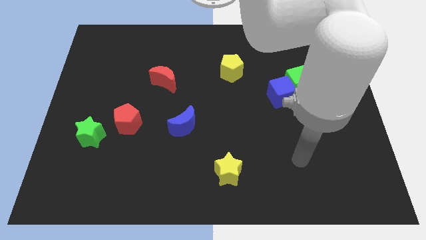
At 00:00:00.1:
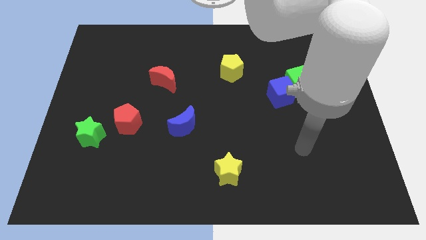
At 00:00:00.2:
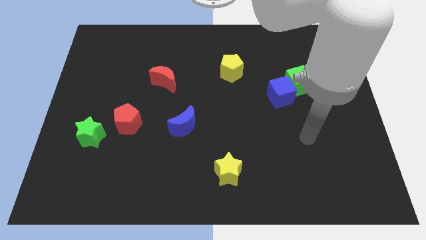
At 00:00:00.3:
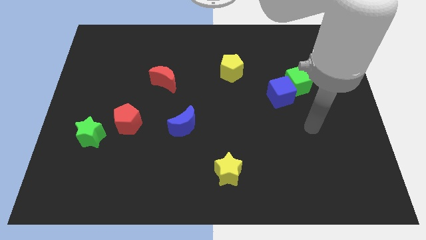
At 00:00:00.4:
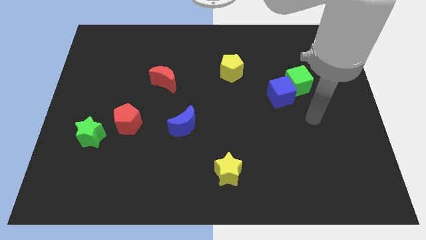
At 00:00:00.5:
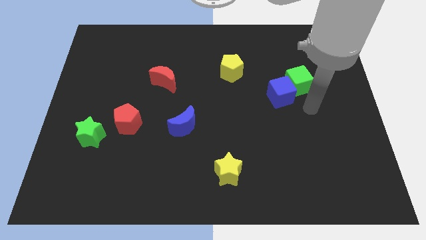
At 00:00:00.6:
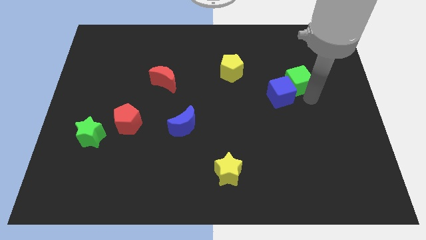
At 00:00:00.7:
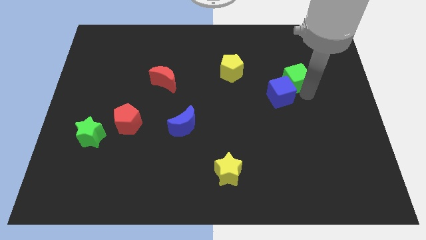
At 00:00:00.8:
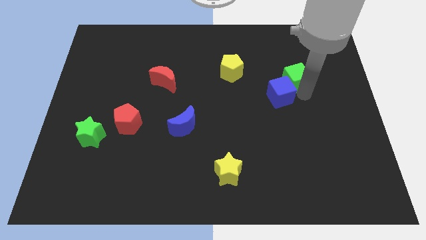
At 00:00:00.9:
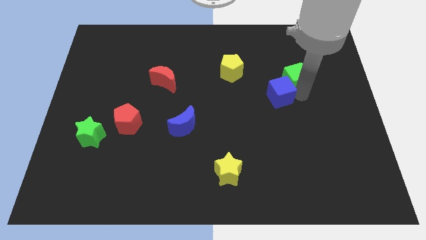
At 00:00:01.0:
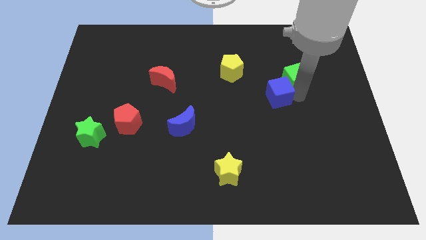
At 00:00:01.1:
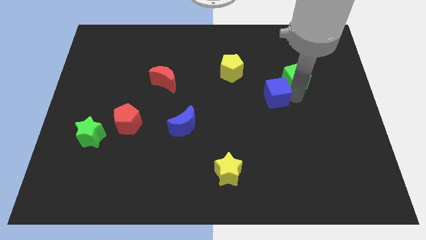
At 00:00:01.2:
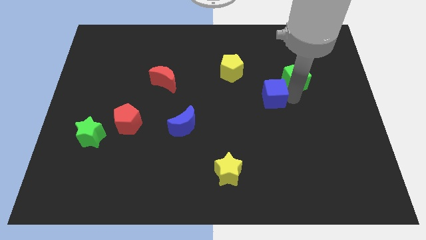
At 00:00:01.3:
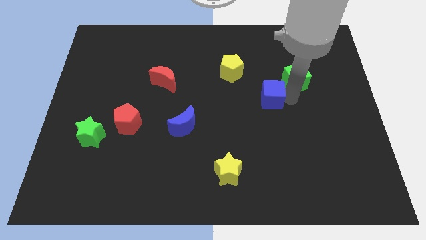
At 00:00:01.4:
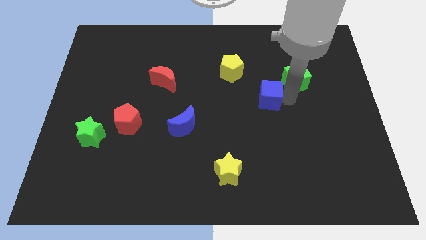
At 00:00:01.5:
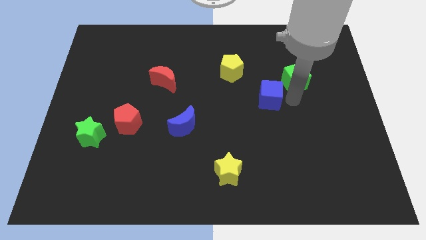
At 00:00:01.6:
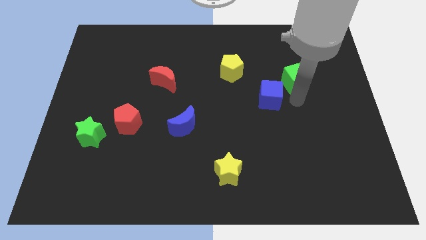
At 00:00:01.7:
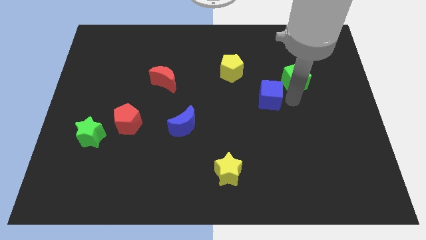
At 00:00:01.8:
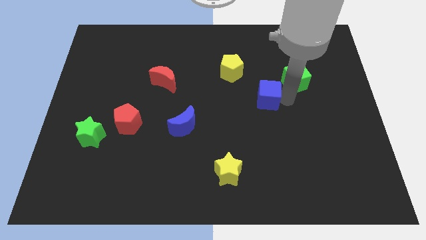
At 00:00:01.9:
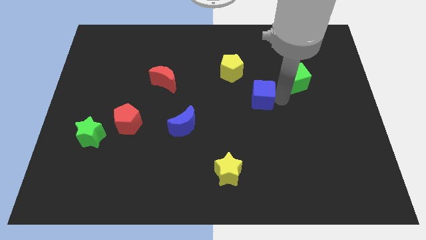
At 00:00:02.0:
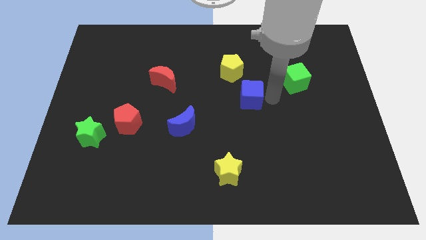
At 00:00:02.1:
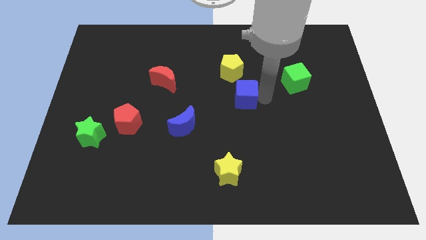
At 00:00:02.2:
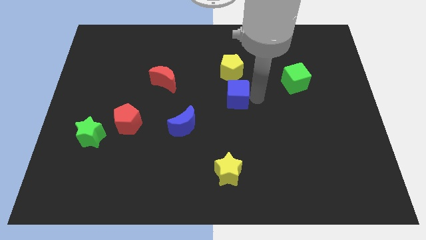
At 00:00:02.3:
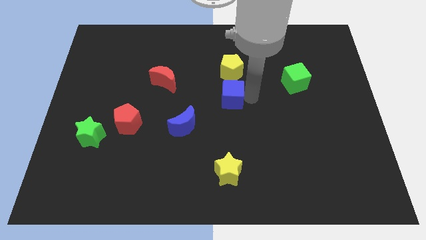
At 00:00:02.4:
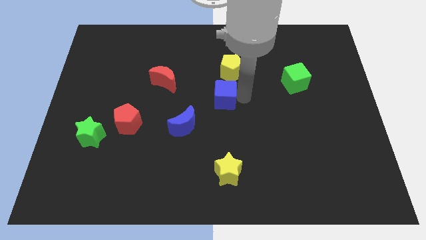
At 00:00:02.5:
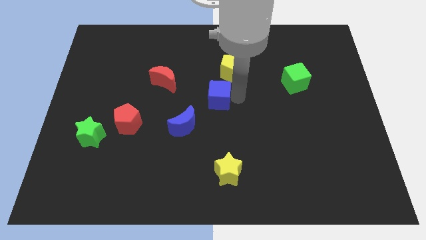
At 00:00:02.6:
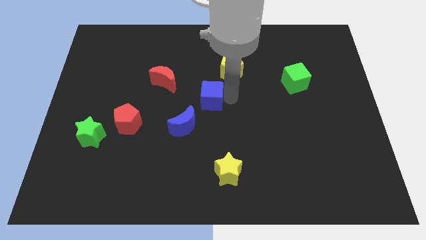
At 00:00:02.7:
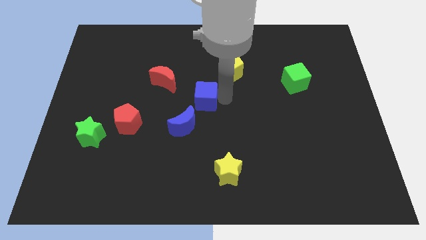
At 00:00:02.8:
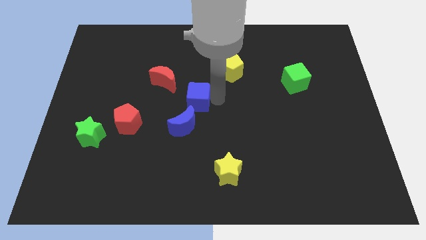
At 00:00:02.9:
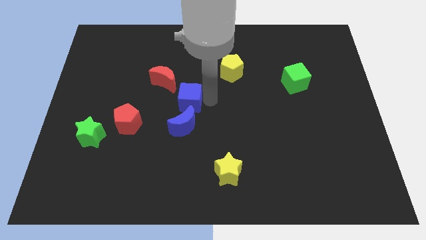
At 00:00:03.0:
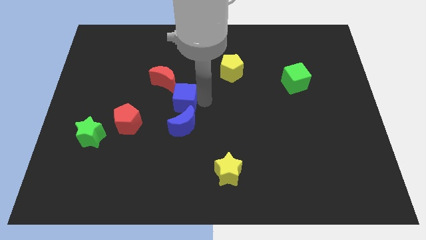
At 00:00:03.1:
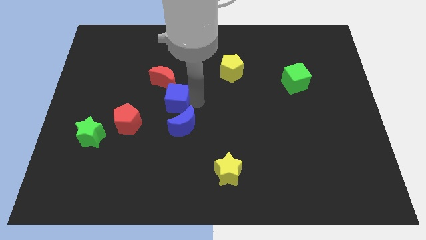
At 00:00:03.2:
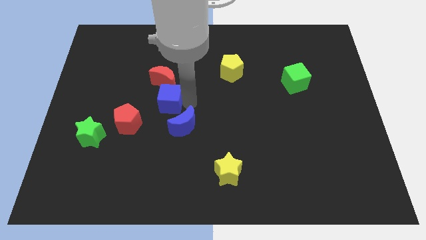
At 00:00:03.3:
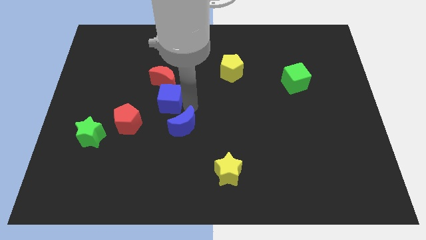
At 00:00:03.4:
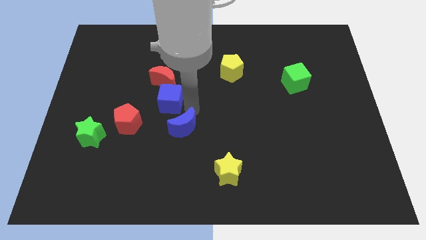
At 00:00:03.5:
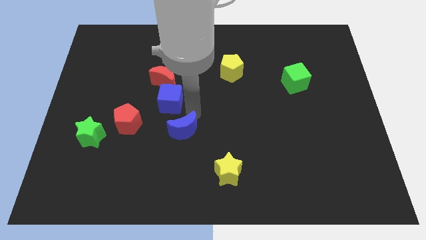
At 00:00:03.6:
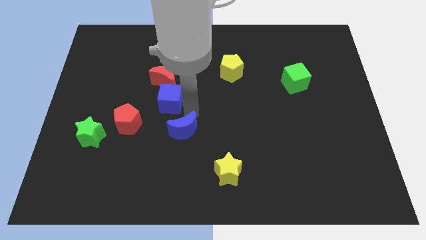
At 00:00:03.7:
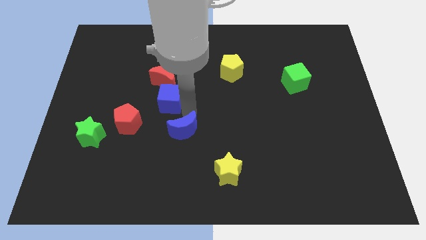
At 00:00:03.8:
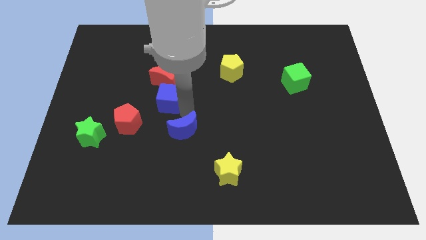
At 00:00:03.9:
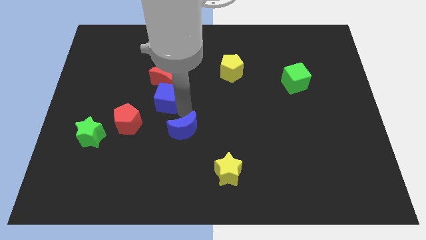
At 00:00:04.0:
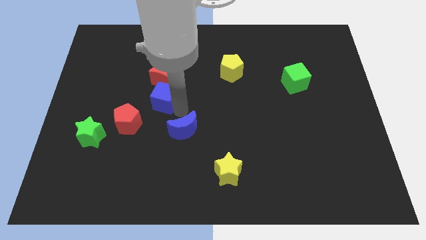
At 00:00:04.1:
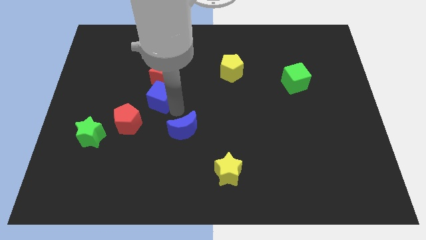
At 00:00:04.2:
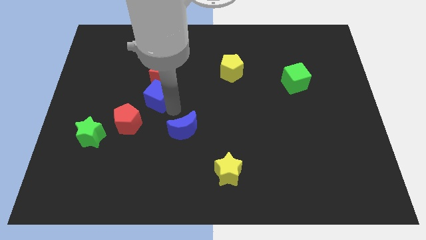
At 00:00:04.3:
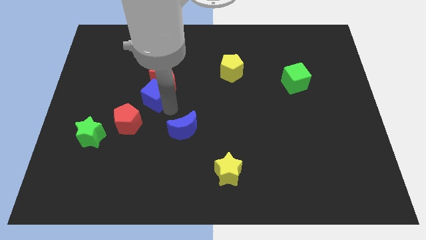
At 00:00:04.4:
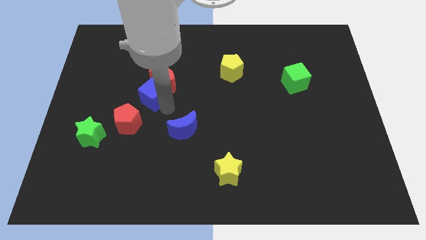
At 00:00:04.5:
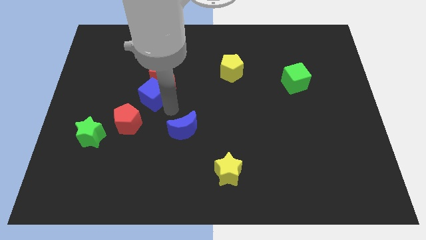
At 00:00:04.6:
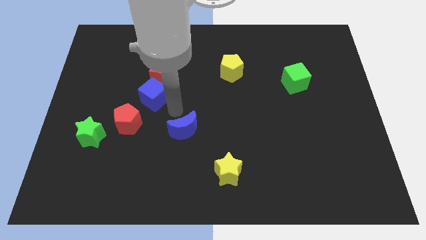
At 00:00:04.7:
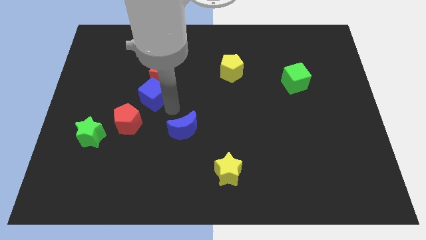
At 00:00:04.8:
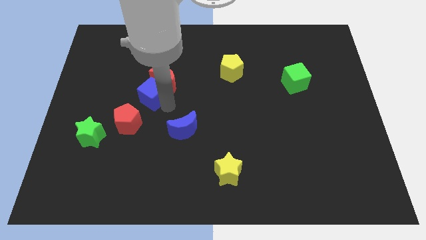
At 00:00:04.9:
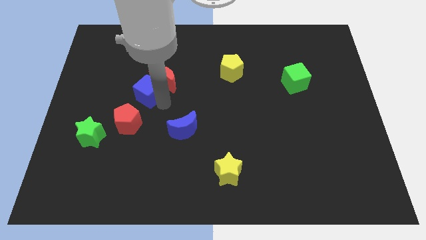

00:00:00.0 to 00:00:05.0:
move the blue cube just left of the red moon

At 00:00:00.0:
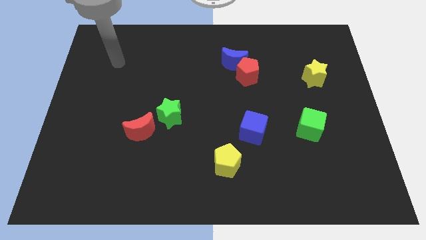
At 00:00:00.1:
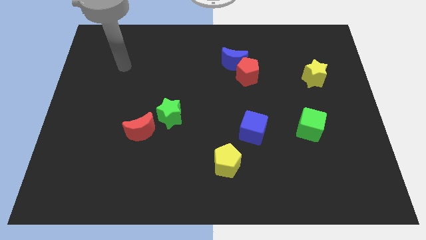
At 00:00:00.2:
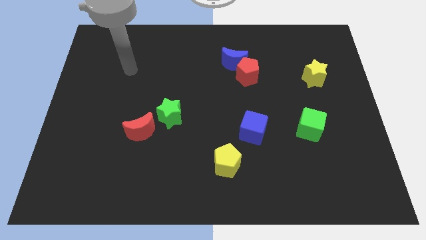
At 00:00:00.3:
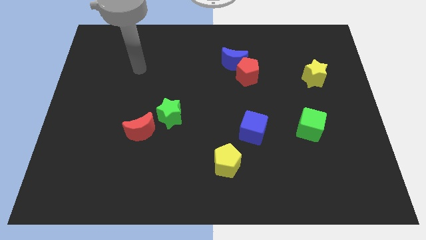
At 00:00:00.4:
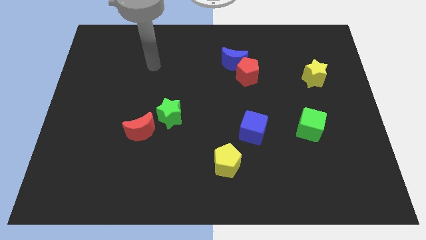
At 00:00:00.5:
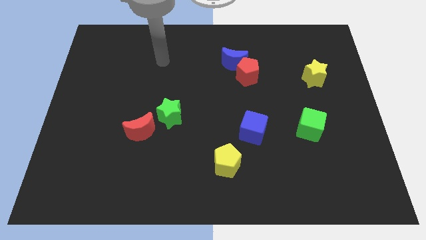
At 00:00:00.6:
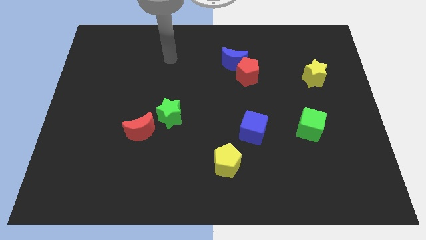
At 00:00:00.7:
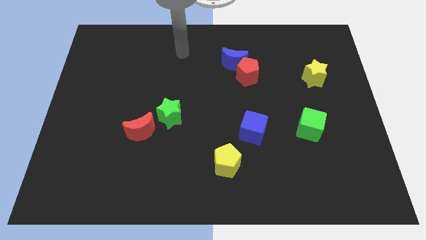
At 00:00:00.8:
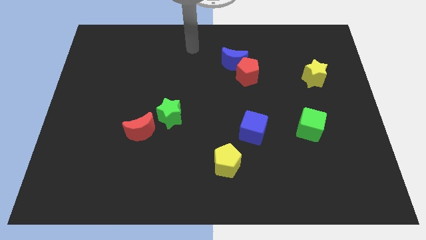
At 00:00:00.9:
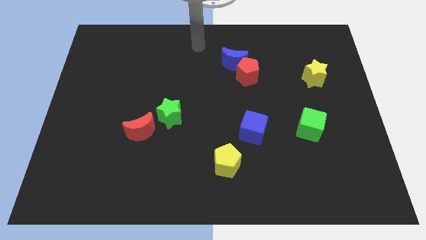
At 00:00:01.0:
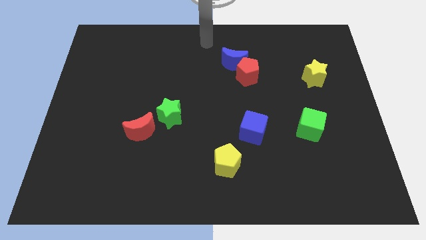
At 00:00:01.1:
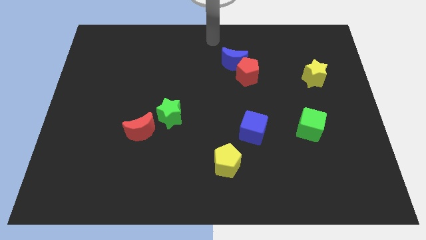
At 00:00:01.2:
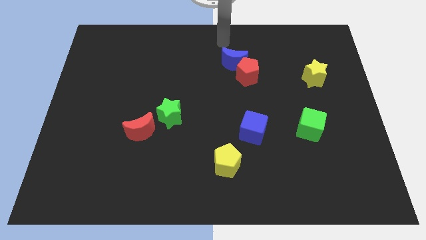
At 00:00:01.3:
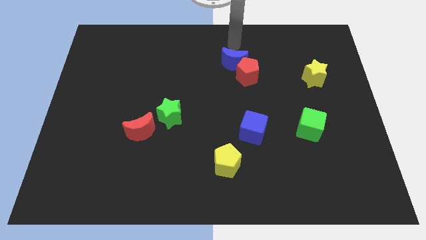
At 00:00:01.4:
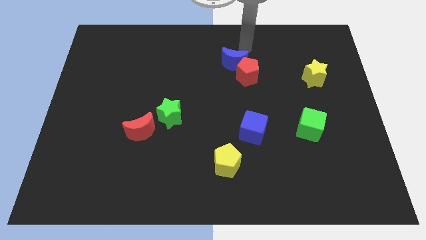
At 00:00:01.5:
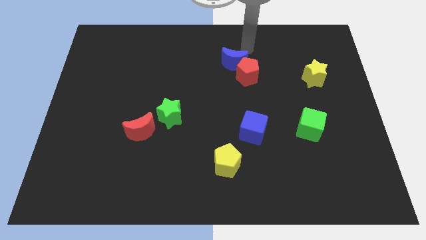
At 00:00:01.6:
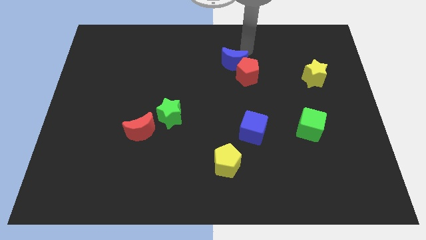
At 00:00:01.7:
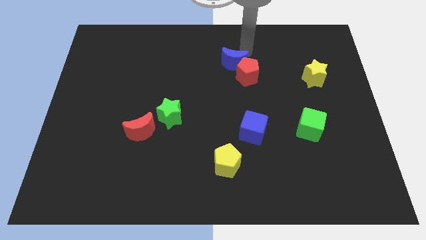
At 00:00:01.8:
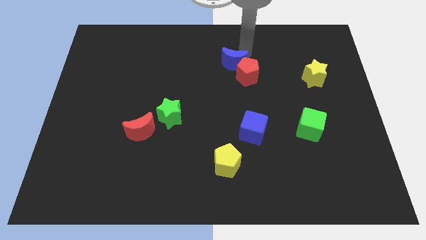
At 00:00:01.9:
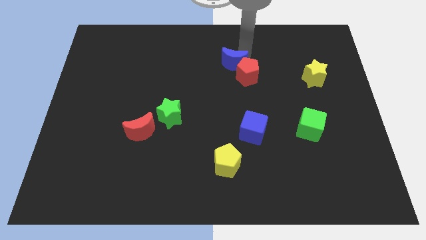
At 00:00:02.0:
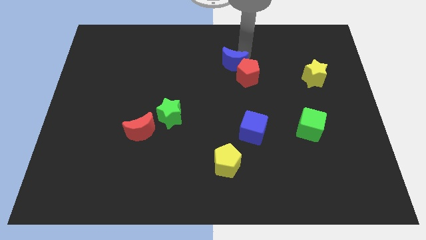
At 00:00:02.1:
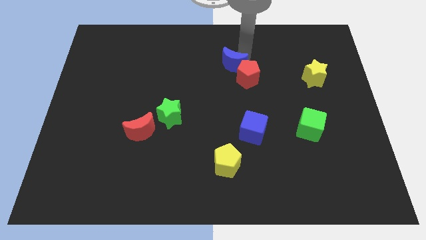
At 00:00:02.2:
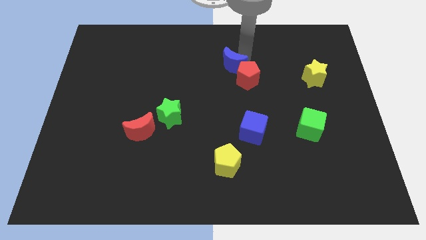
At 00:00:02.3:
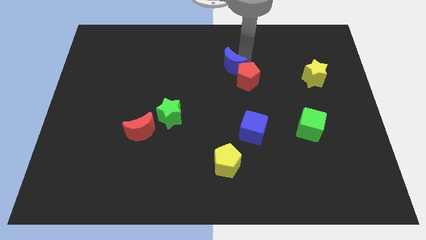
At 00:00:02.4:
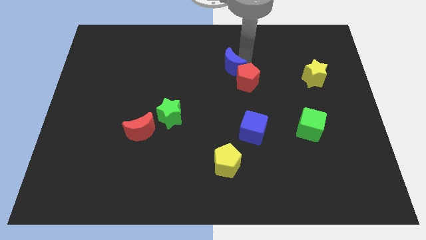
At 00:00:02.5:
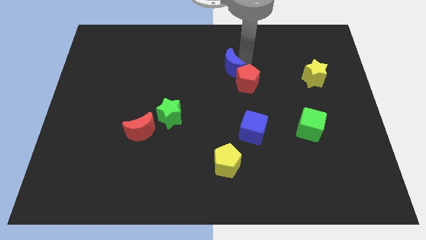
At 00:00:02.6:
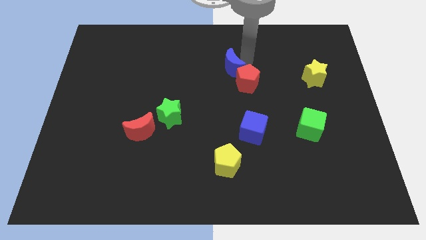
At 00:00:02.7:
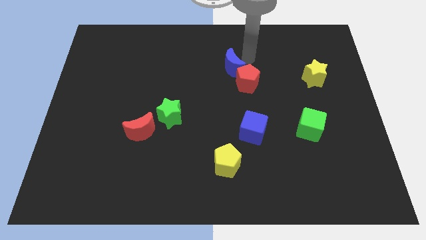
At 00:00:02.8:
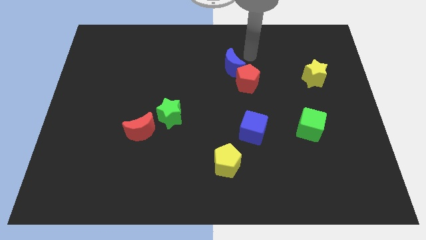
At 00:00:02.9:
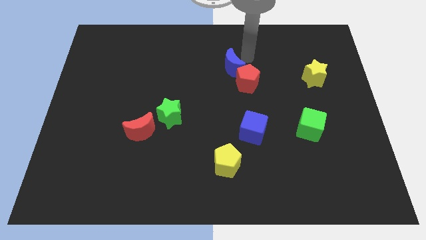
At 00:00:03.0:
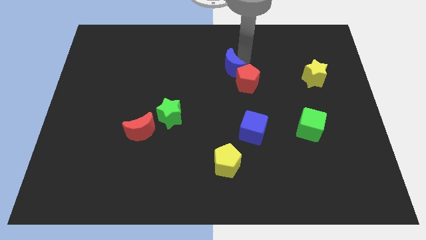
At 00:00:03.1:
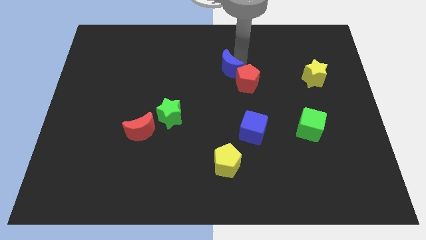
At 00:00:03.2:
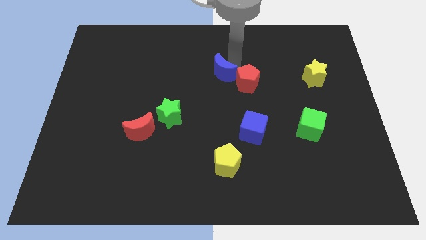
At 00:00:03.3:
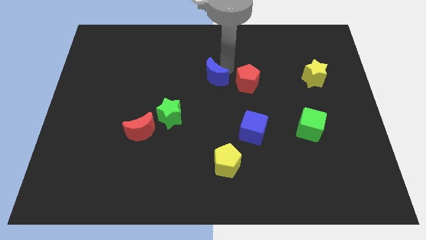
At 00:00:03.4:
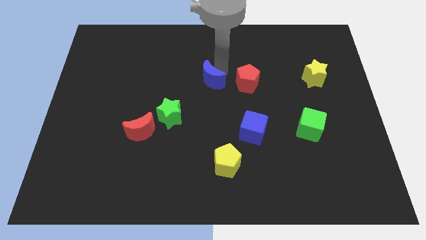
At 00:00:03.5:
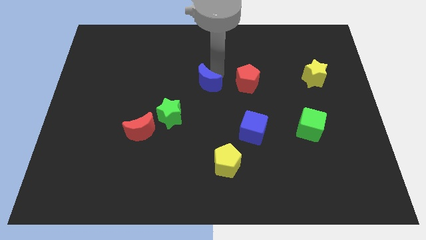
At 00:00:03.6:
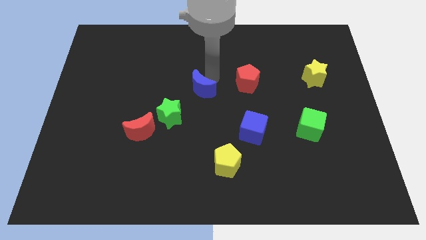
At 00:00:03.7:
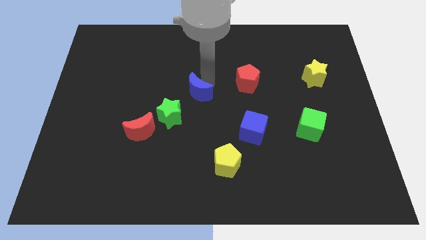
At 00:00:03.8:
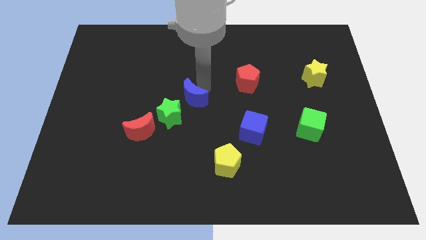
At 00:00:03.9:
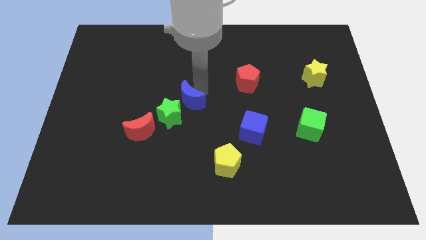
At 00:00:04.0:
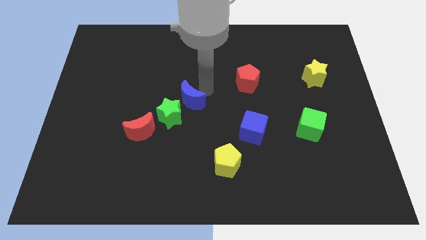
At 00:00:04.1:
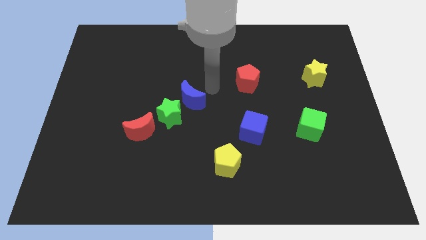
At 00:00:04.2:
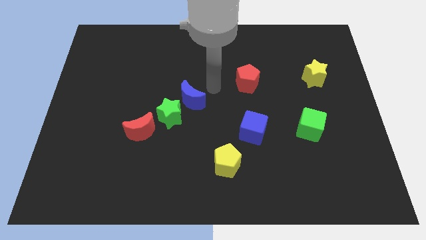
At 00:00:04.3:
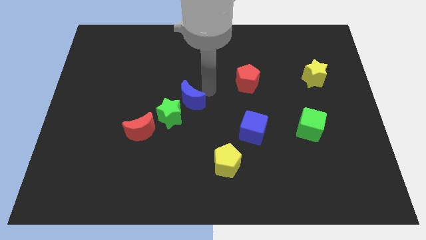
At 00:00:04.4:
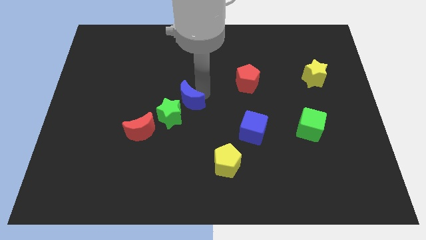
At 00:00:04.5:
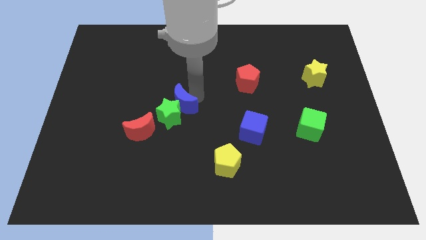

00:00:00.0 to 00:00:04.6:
slide the blue moon to the top right side of the red moon
